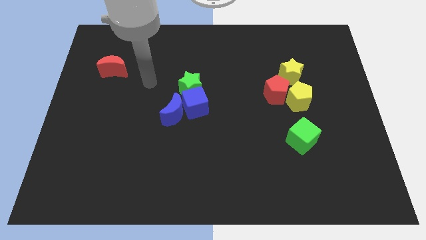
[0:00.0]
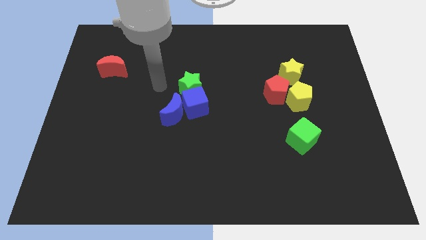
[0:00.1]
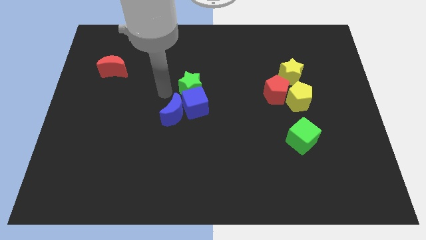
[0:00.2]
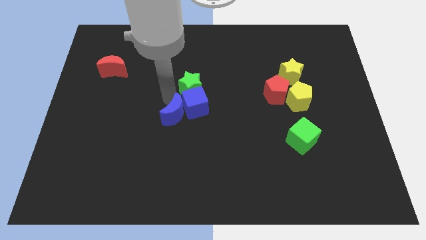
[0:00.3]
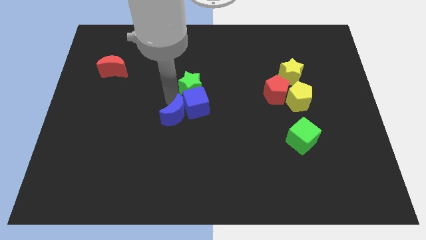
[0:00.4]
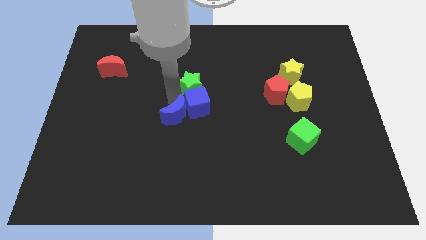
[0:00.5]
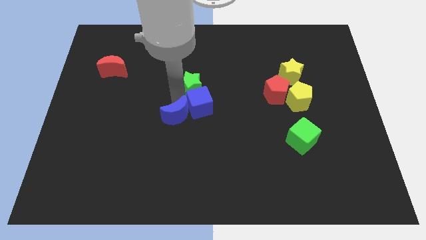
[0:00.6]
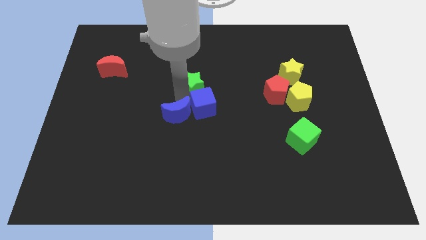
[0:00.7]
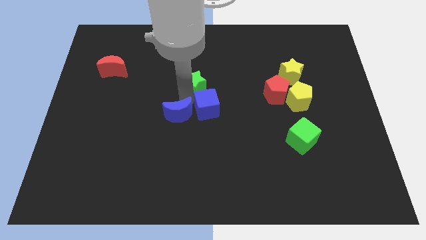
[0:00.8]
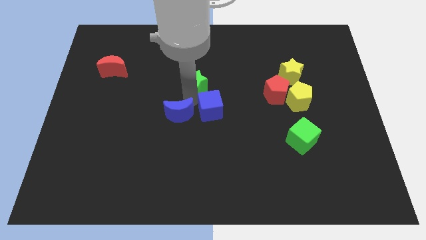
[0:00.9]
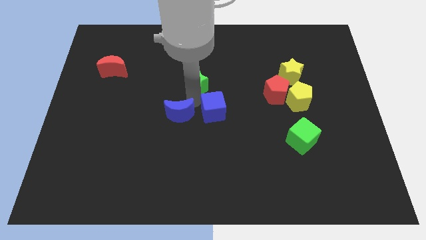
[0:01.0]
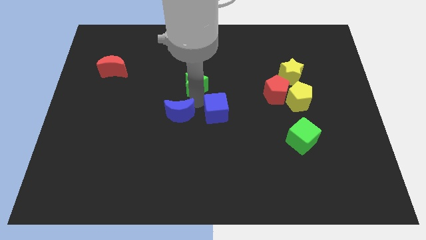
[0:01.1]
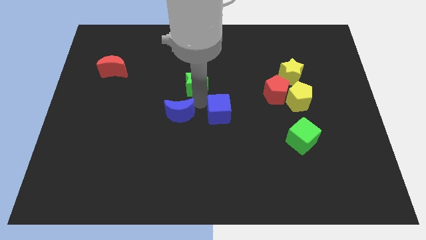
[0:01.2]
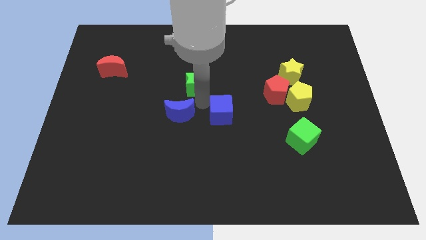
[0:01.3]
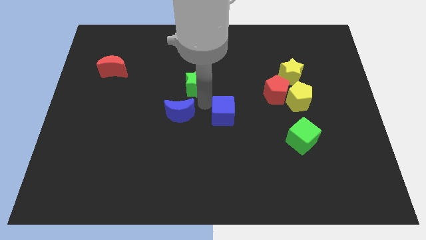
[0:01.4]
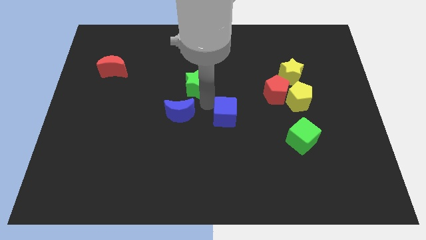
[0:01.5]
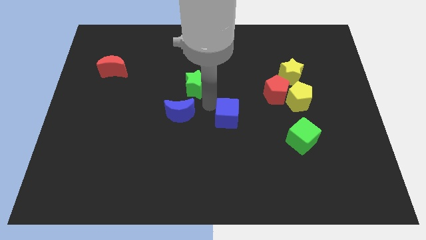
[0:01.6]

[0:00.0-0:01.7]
pull the blue cube apart from the blue moon and green star

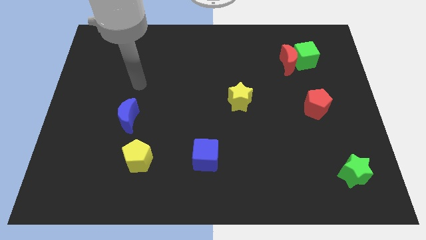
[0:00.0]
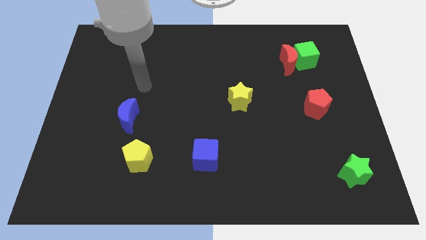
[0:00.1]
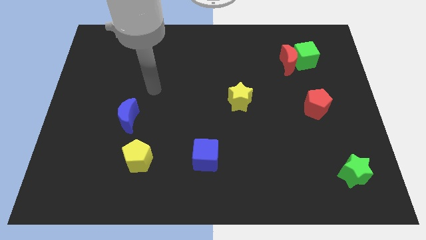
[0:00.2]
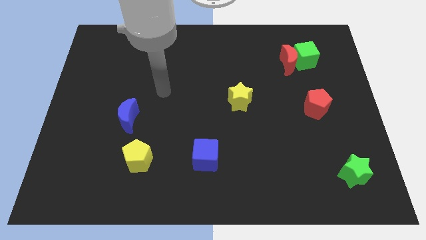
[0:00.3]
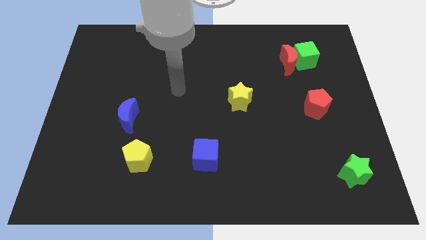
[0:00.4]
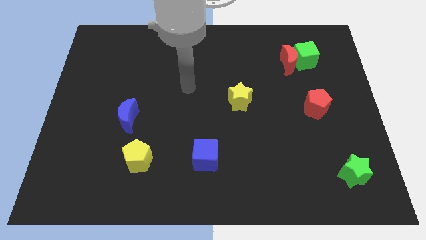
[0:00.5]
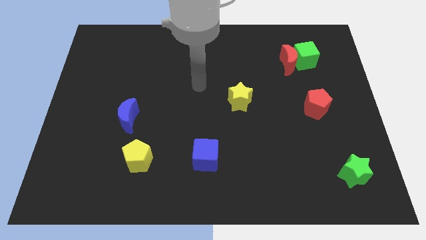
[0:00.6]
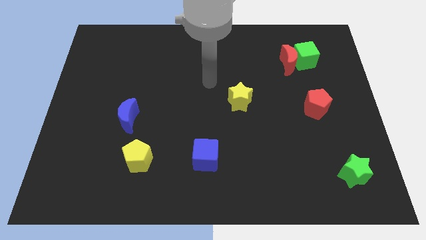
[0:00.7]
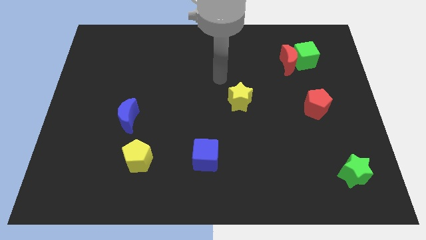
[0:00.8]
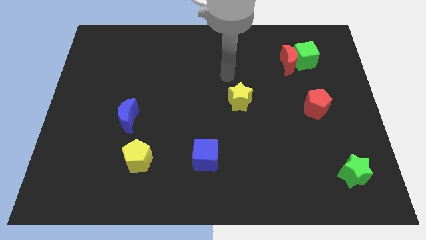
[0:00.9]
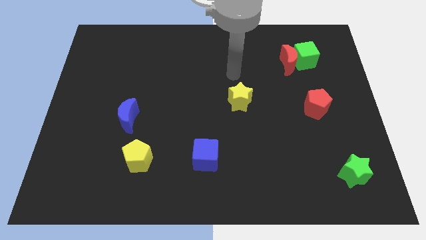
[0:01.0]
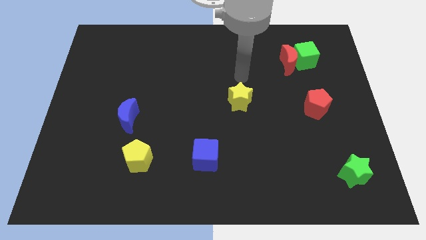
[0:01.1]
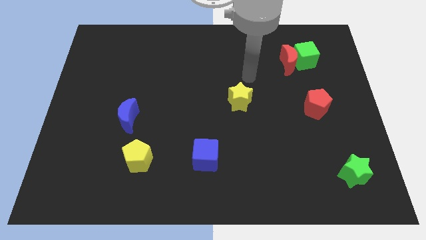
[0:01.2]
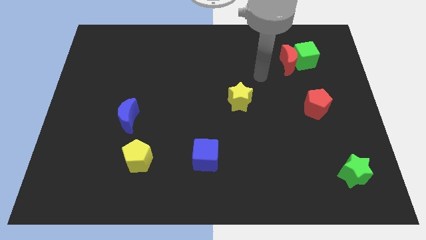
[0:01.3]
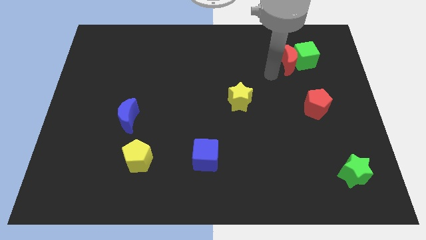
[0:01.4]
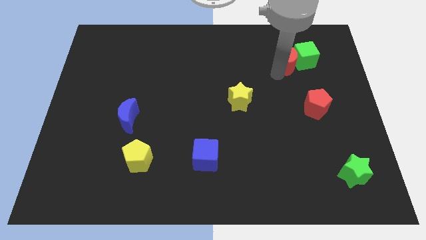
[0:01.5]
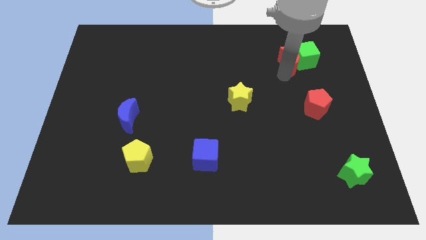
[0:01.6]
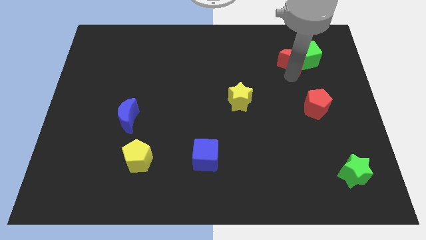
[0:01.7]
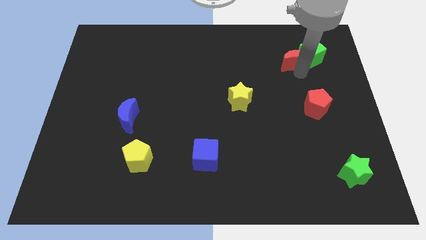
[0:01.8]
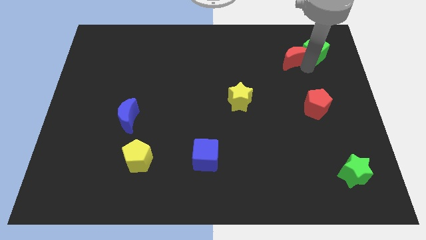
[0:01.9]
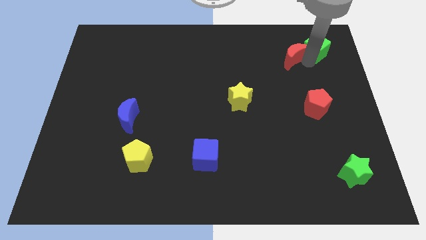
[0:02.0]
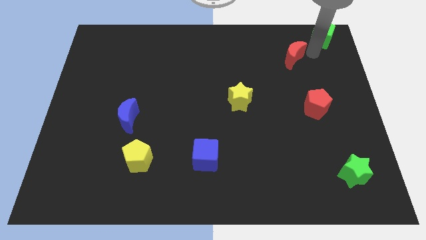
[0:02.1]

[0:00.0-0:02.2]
move the red moon away from the green cube

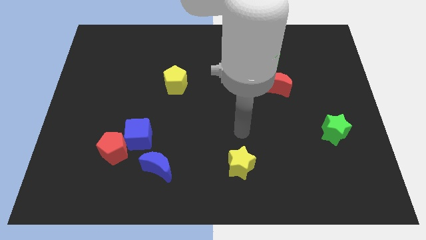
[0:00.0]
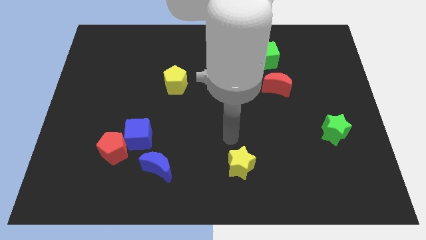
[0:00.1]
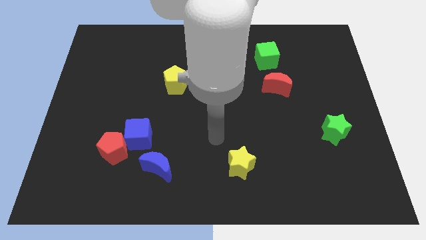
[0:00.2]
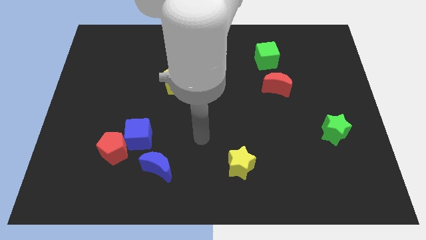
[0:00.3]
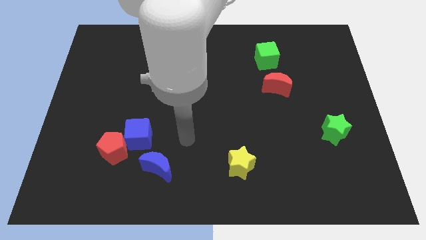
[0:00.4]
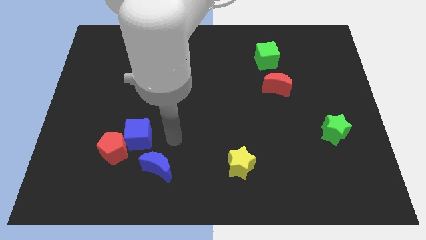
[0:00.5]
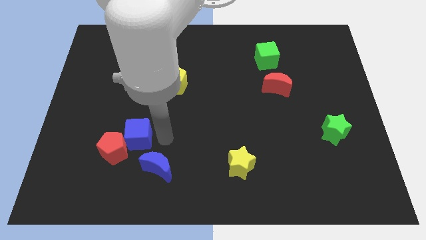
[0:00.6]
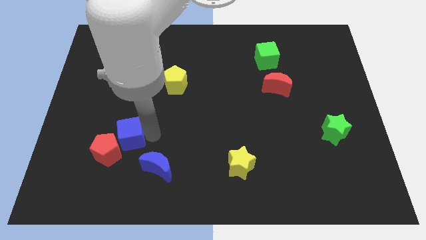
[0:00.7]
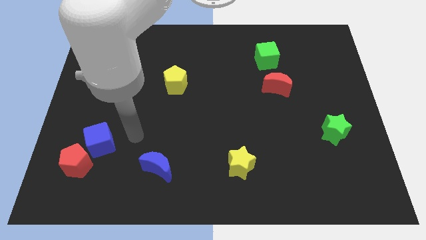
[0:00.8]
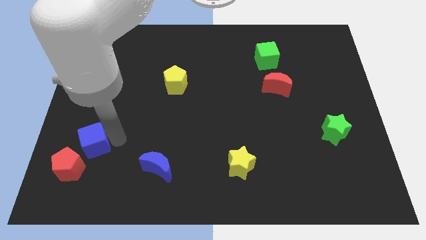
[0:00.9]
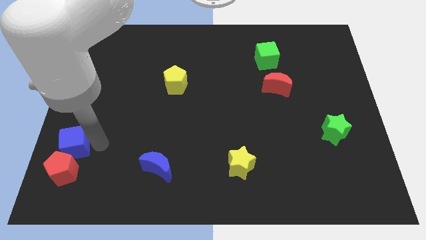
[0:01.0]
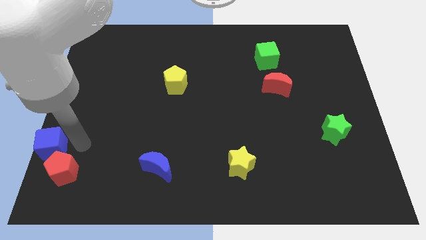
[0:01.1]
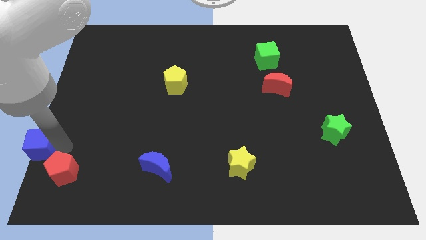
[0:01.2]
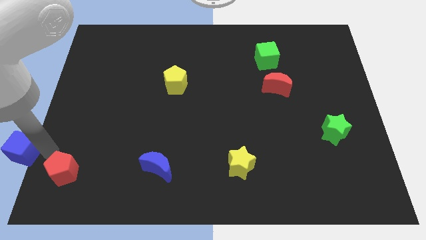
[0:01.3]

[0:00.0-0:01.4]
pull the red pentagon apart from the blue cube

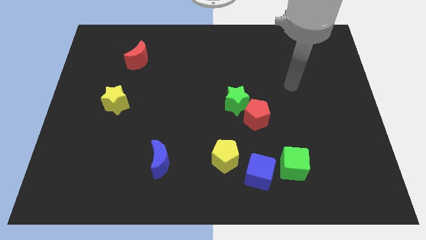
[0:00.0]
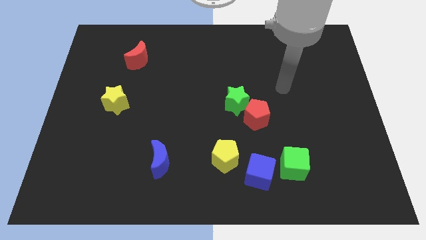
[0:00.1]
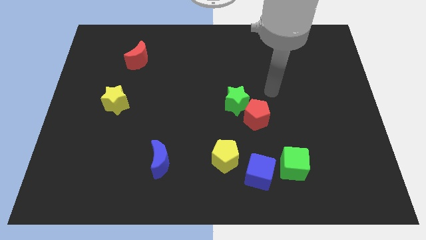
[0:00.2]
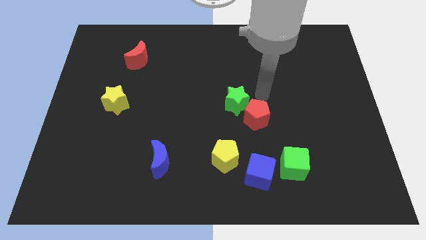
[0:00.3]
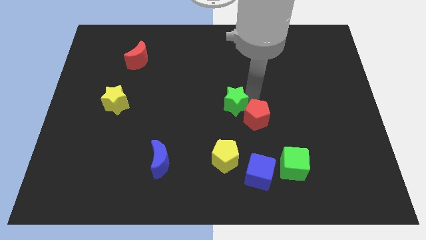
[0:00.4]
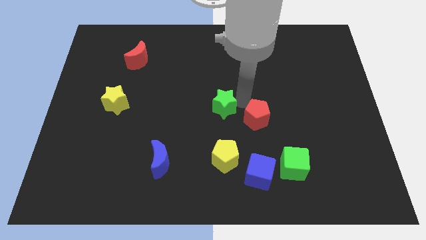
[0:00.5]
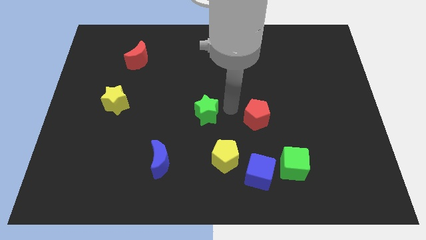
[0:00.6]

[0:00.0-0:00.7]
move the red pentagon away from the green star

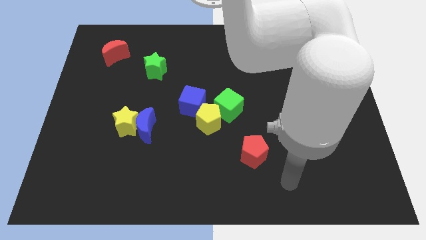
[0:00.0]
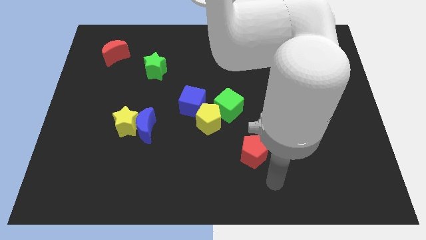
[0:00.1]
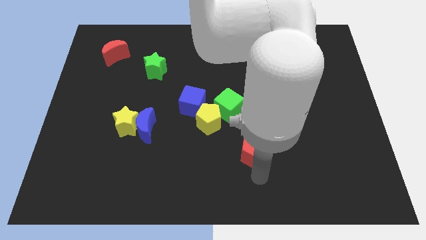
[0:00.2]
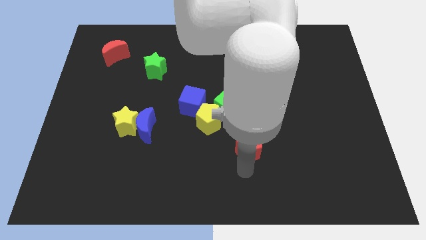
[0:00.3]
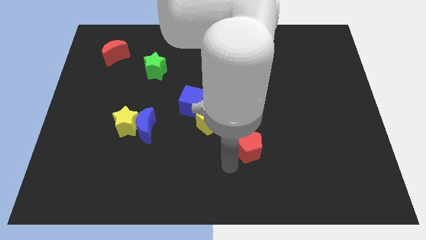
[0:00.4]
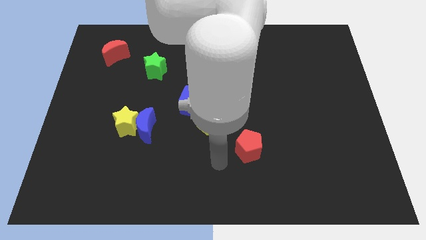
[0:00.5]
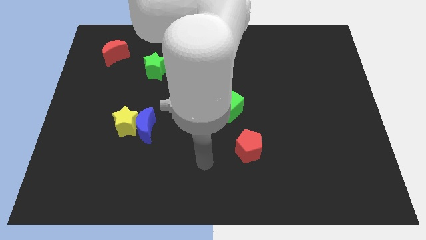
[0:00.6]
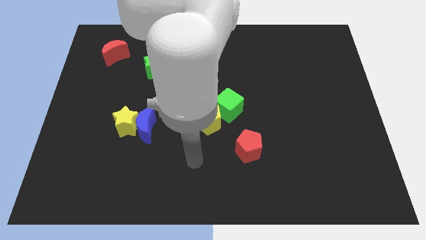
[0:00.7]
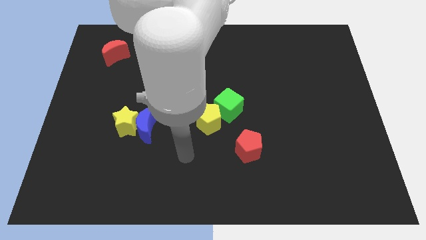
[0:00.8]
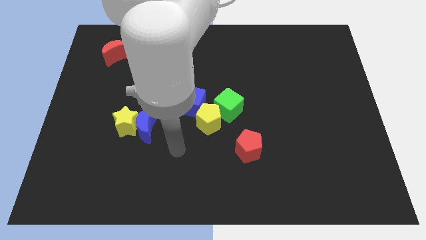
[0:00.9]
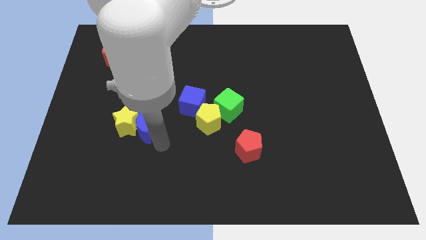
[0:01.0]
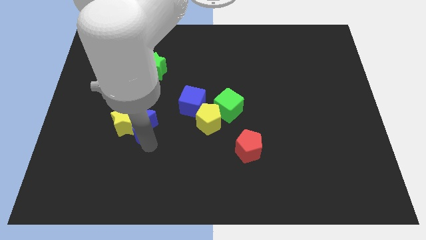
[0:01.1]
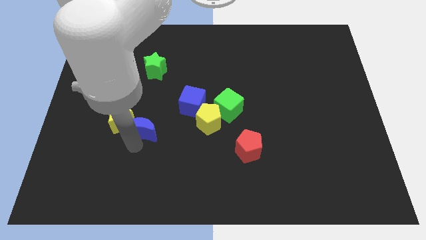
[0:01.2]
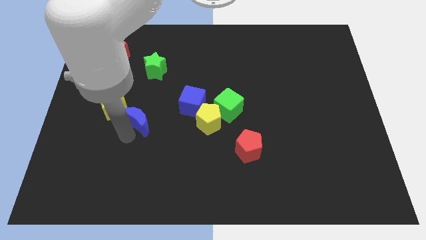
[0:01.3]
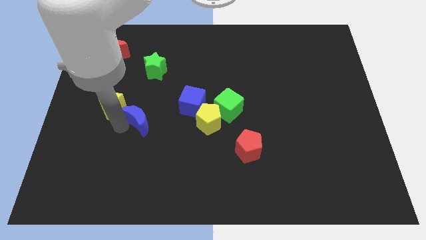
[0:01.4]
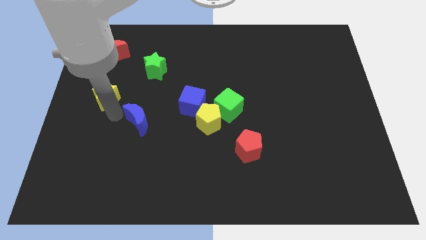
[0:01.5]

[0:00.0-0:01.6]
separate the blue moon from the yellow star

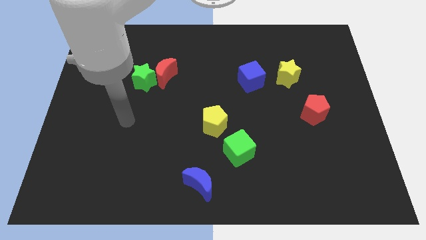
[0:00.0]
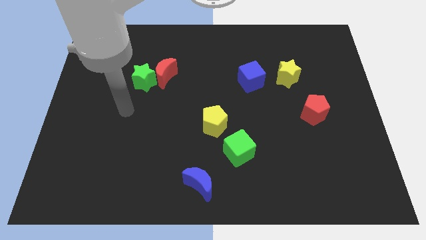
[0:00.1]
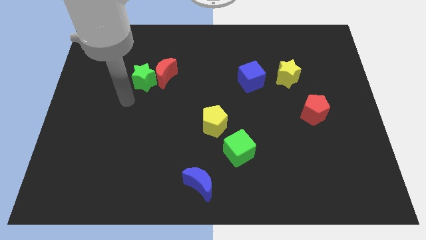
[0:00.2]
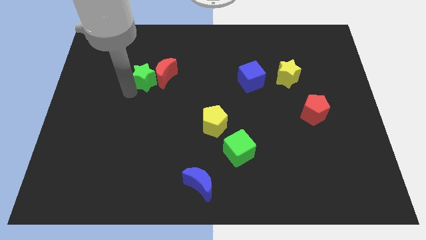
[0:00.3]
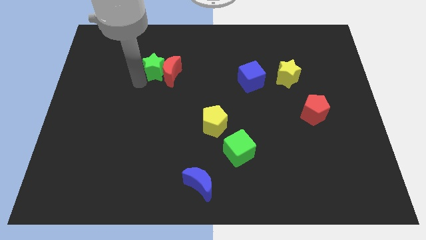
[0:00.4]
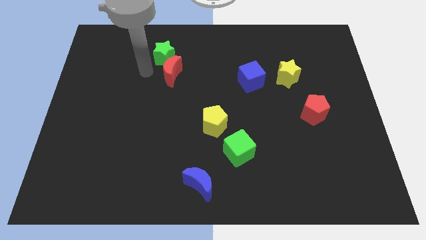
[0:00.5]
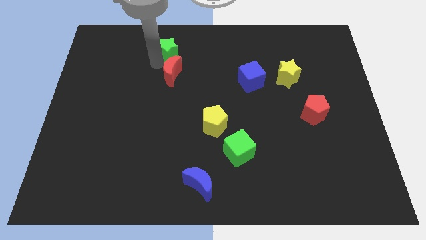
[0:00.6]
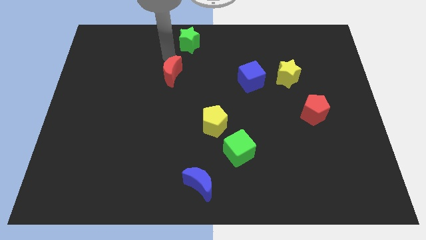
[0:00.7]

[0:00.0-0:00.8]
separate the red moon from the green star

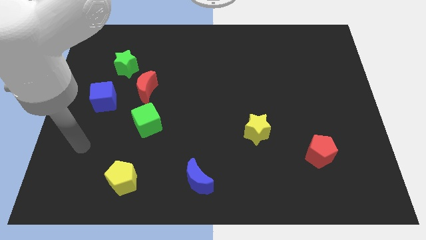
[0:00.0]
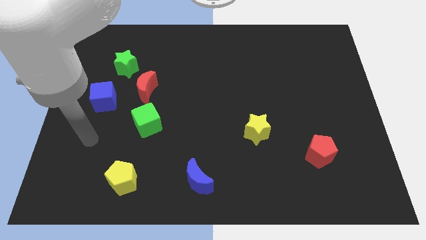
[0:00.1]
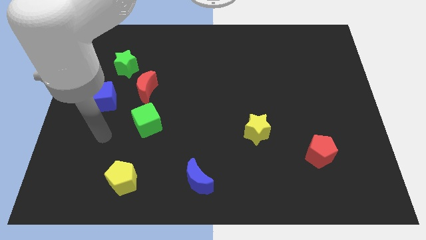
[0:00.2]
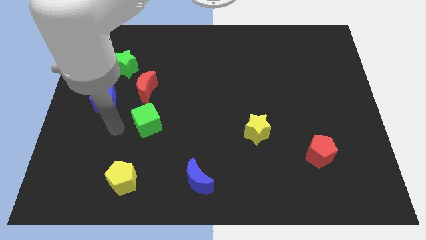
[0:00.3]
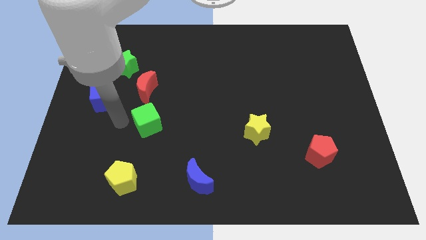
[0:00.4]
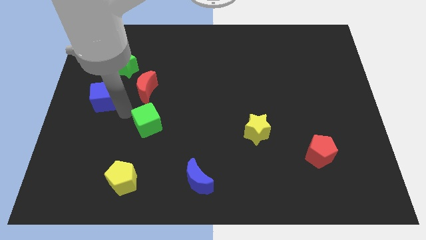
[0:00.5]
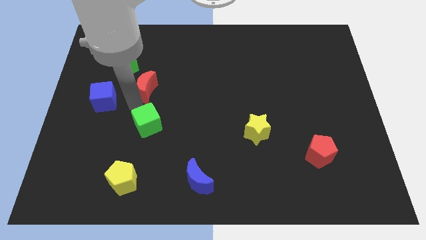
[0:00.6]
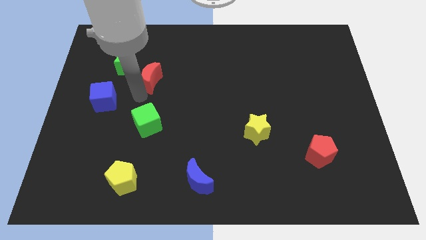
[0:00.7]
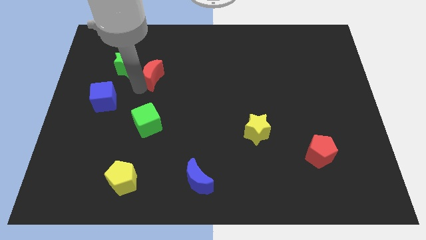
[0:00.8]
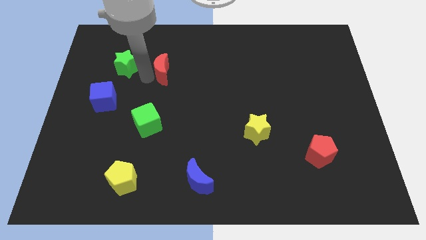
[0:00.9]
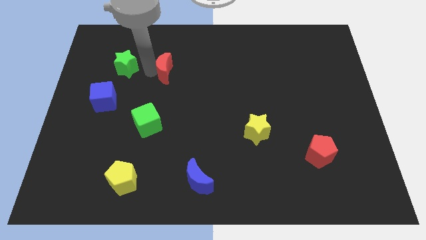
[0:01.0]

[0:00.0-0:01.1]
move the green star away from the red moon
